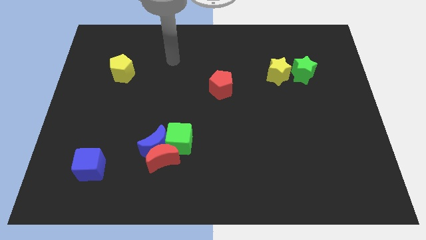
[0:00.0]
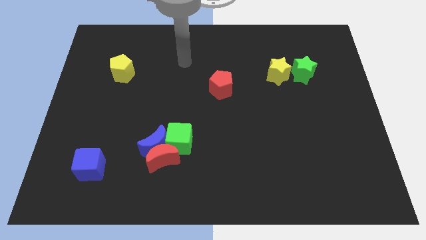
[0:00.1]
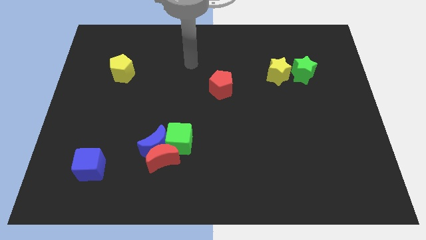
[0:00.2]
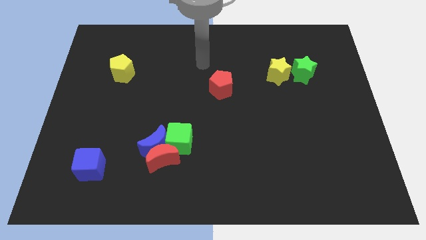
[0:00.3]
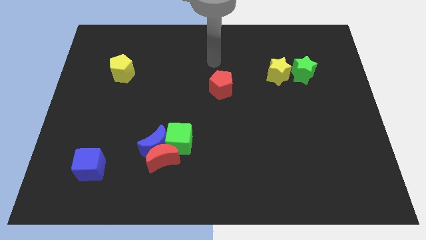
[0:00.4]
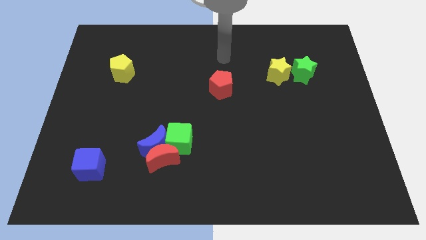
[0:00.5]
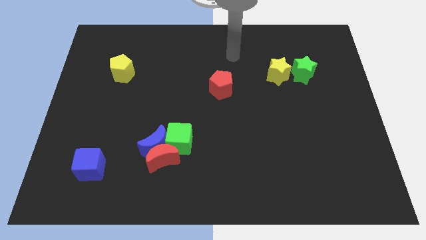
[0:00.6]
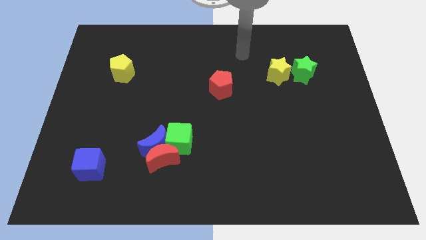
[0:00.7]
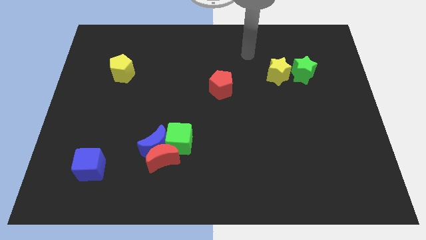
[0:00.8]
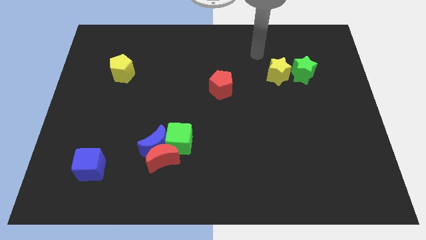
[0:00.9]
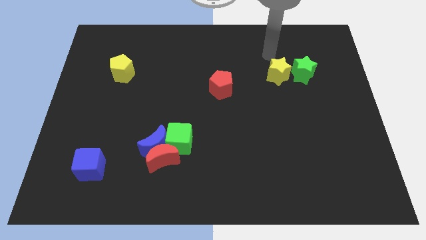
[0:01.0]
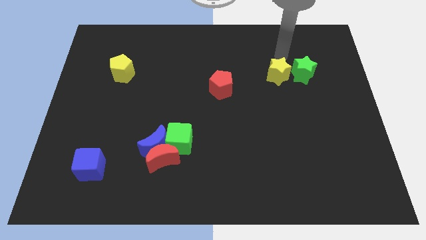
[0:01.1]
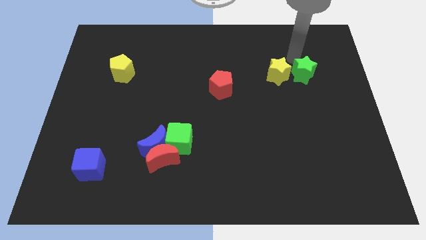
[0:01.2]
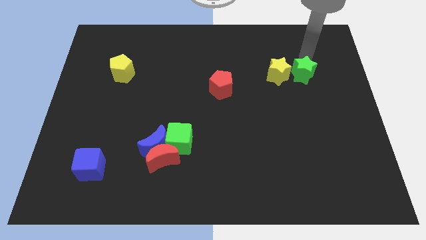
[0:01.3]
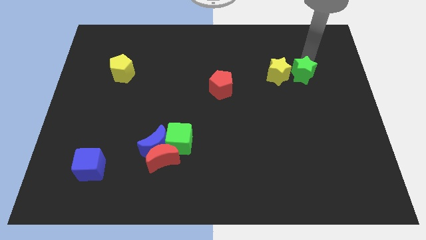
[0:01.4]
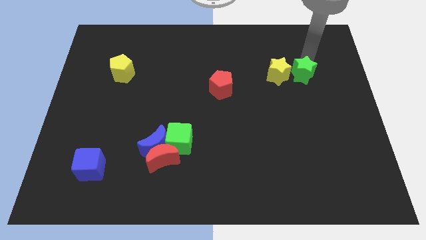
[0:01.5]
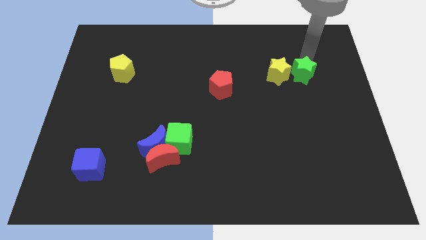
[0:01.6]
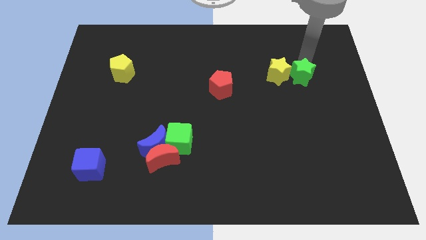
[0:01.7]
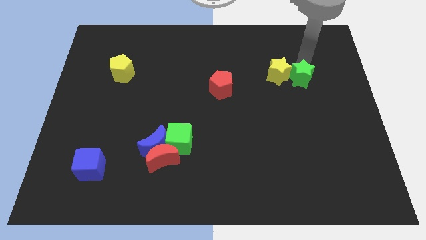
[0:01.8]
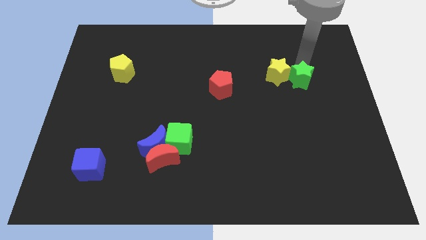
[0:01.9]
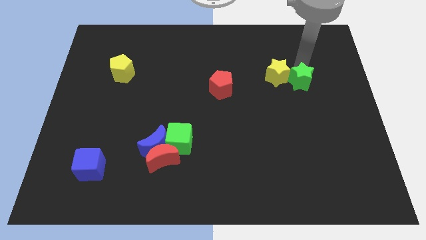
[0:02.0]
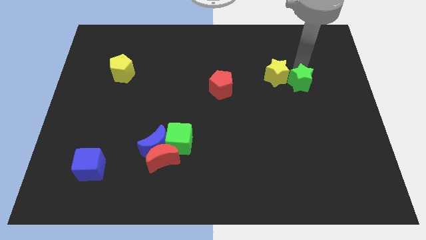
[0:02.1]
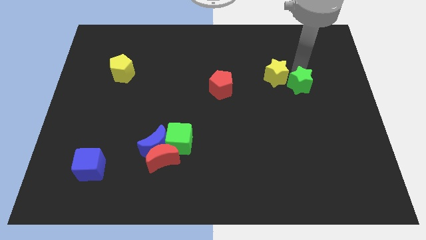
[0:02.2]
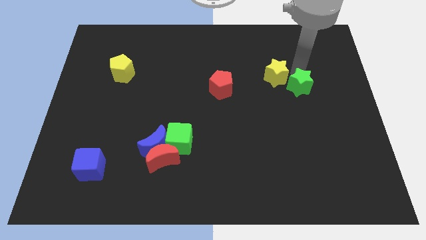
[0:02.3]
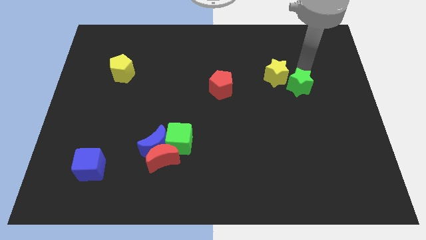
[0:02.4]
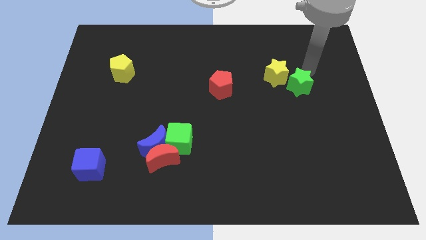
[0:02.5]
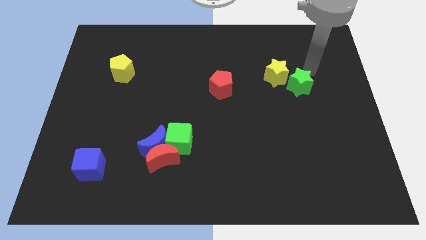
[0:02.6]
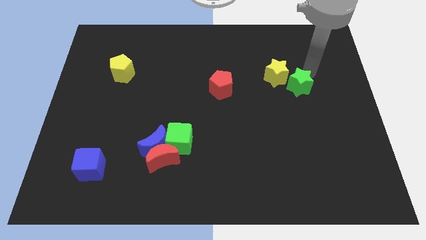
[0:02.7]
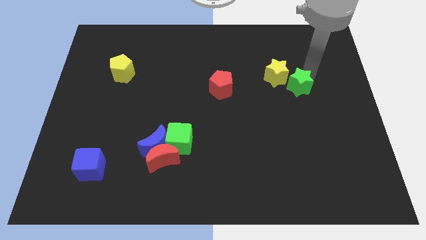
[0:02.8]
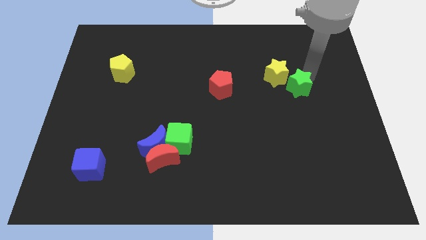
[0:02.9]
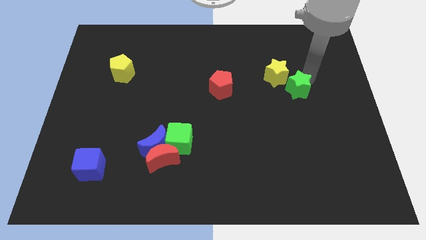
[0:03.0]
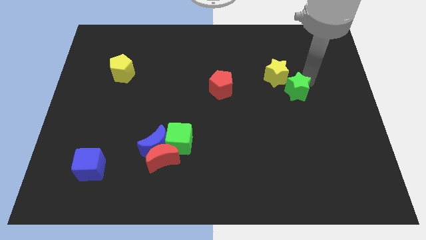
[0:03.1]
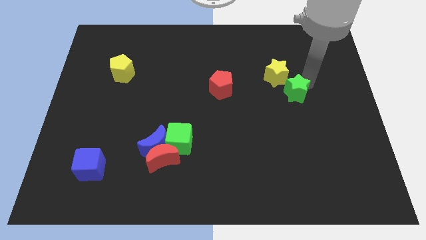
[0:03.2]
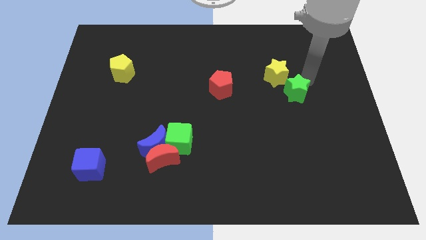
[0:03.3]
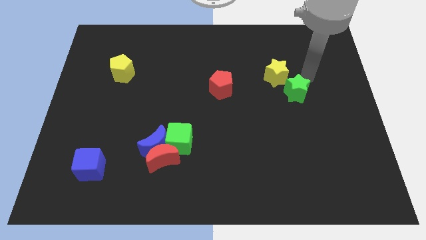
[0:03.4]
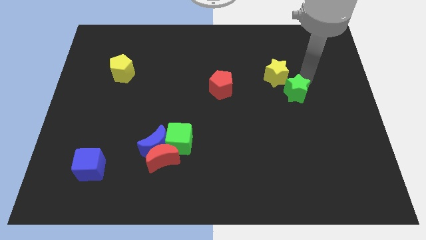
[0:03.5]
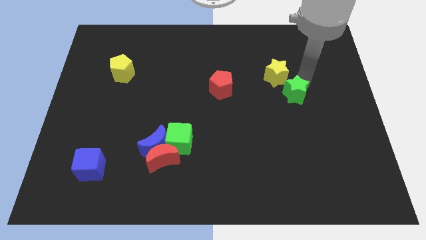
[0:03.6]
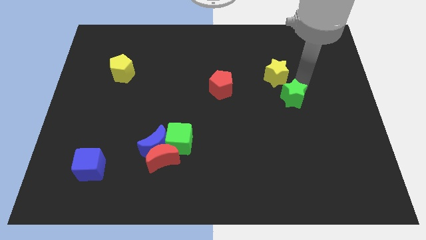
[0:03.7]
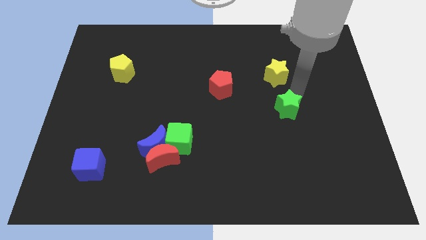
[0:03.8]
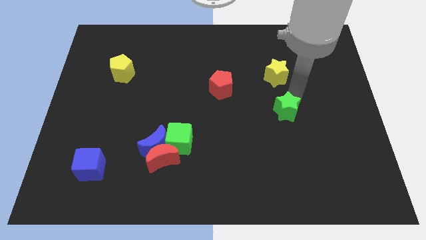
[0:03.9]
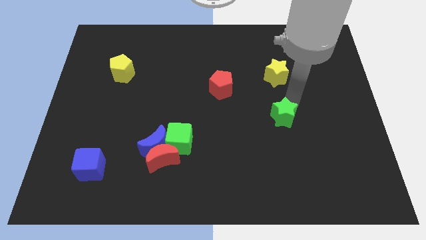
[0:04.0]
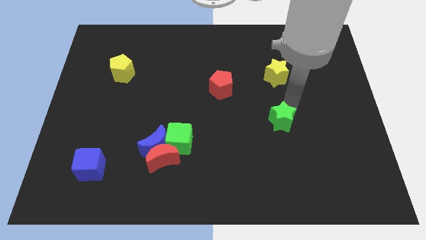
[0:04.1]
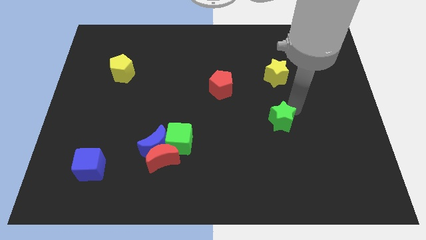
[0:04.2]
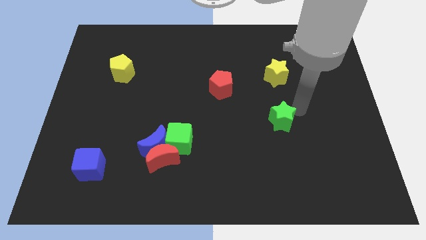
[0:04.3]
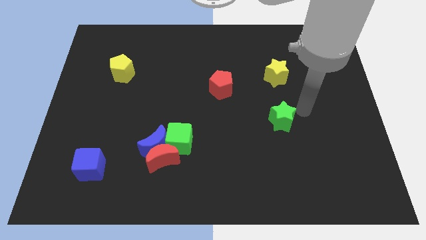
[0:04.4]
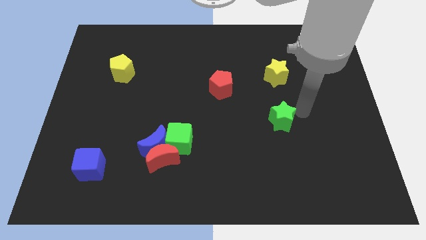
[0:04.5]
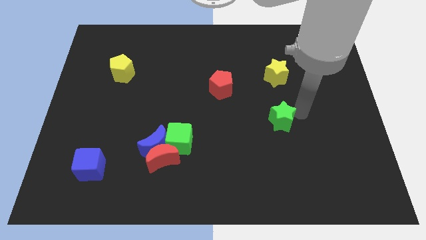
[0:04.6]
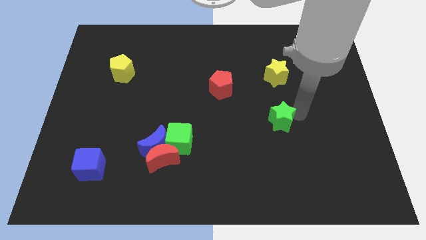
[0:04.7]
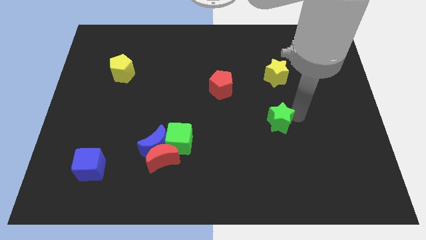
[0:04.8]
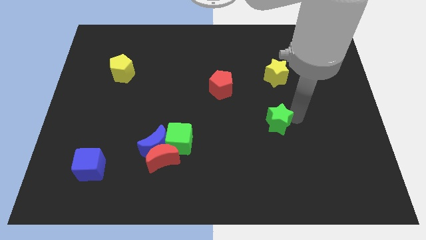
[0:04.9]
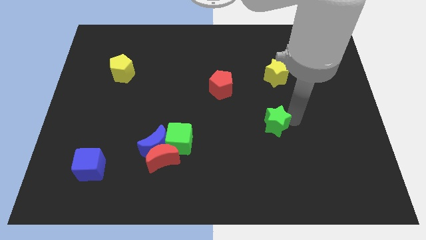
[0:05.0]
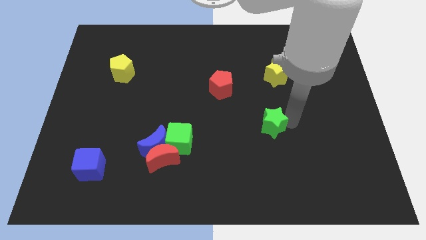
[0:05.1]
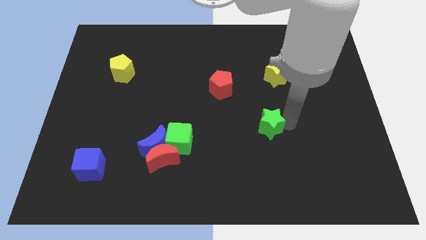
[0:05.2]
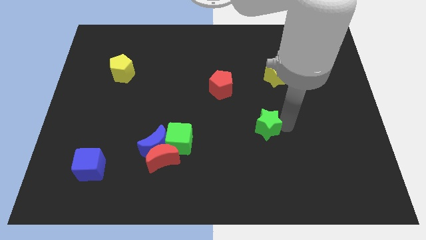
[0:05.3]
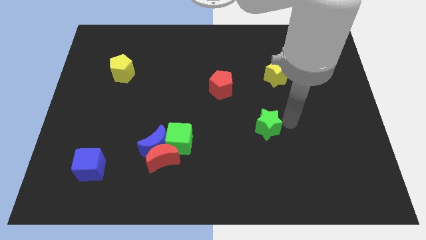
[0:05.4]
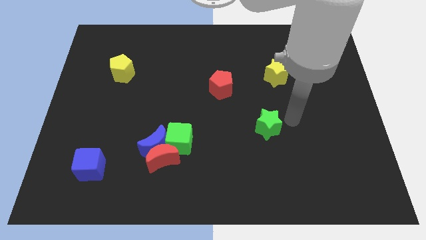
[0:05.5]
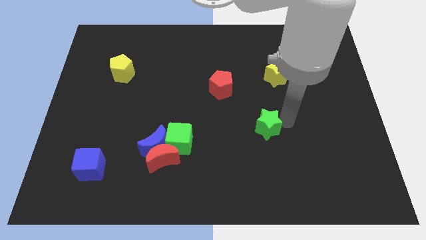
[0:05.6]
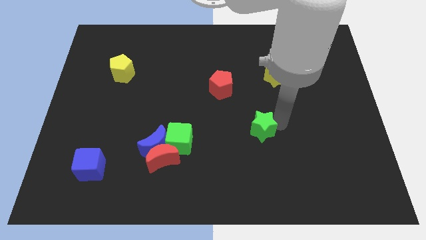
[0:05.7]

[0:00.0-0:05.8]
move the green star down and then to the left

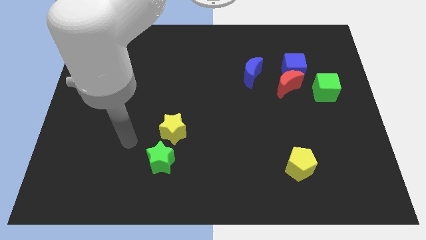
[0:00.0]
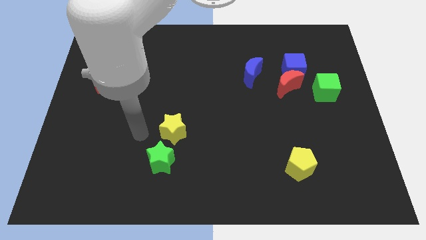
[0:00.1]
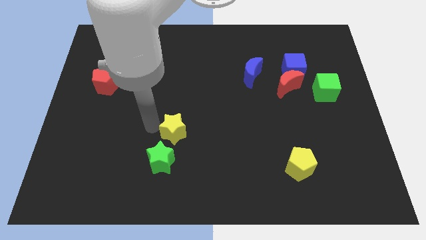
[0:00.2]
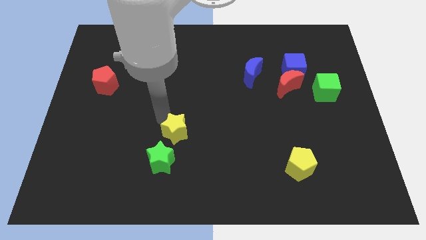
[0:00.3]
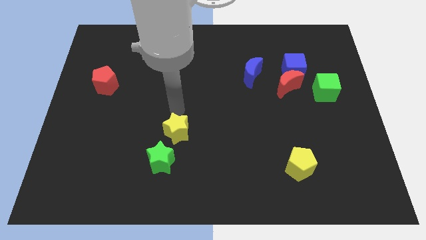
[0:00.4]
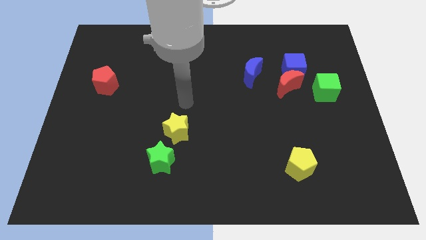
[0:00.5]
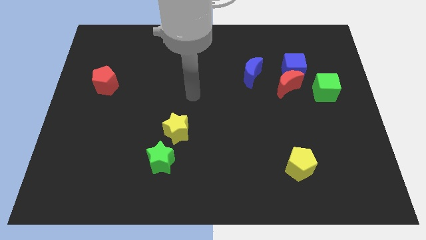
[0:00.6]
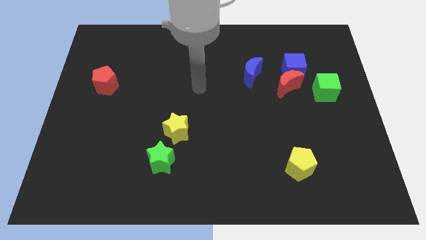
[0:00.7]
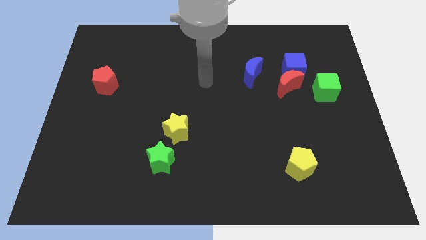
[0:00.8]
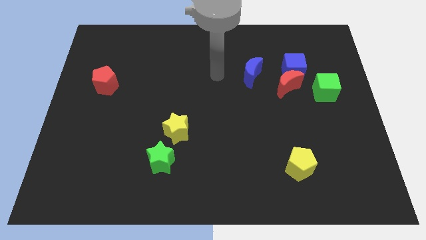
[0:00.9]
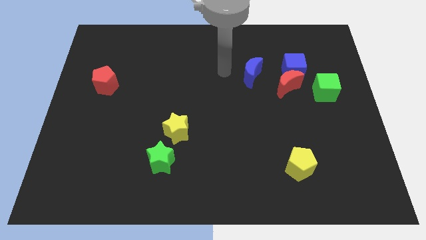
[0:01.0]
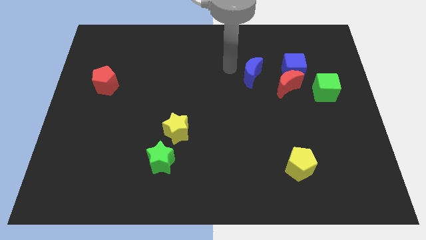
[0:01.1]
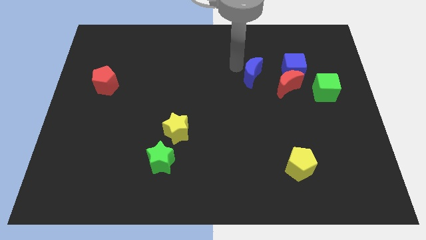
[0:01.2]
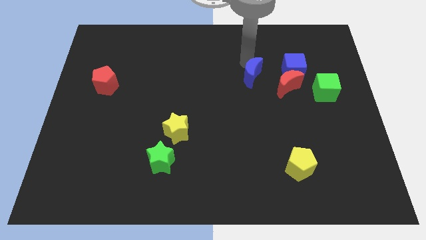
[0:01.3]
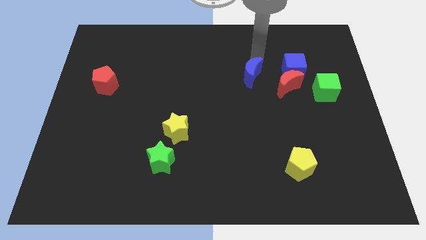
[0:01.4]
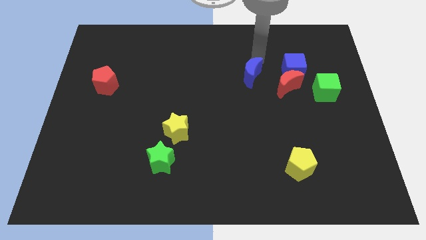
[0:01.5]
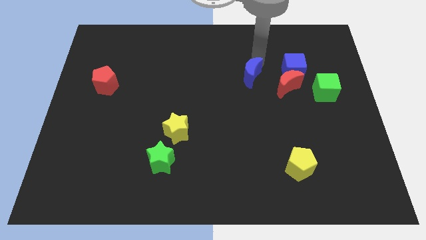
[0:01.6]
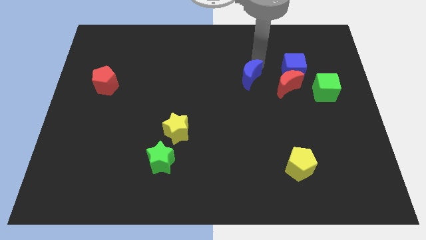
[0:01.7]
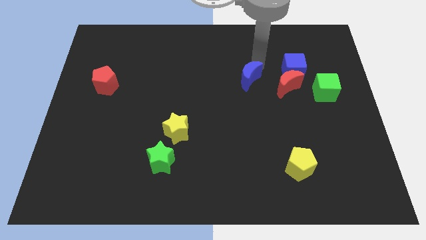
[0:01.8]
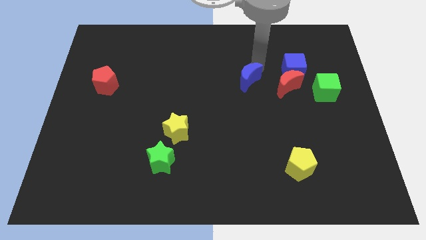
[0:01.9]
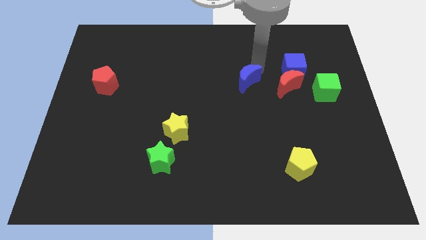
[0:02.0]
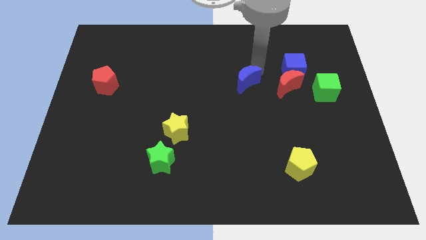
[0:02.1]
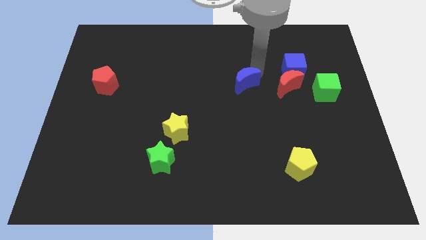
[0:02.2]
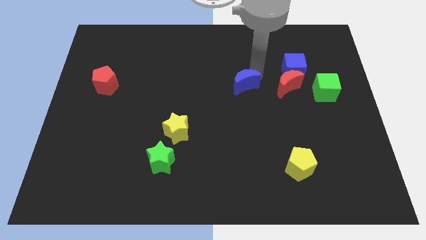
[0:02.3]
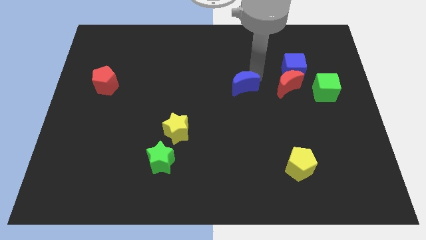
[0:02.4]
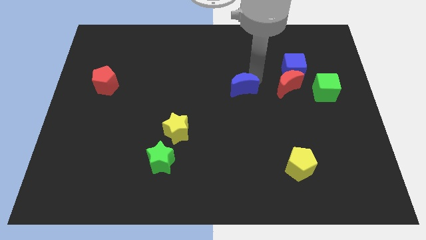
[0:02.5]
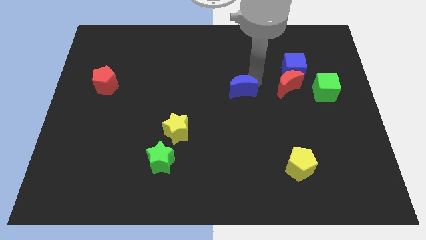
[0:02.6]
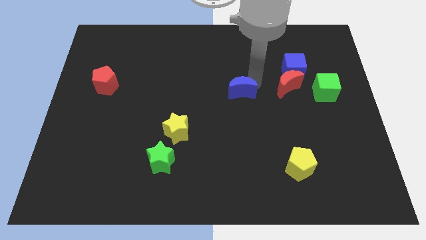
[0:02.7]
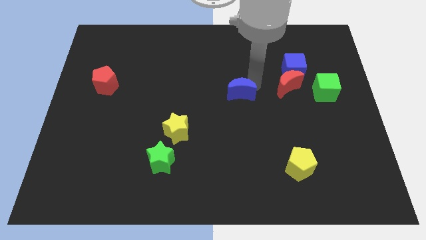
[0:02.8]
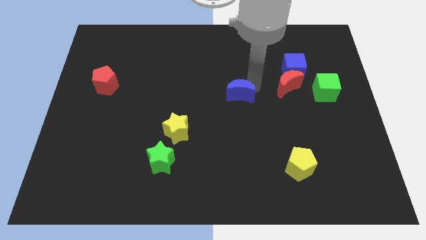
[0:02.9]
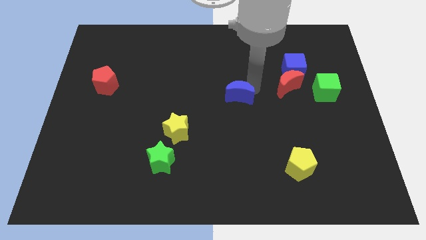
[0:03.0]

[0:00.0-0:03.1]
slightly move the blue moon diagonally down and to the left
